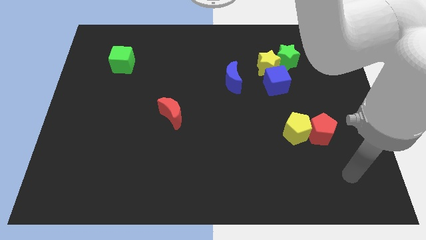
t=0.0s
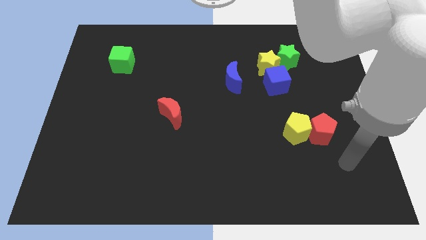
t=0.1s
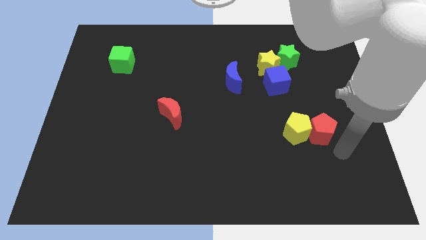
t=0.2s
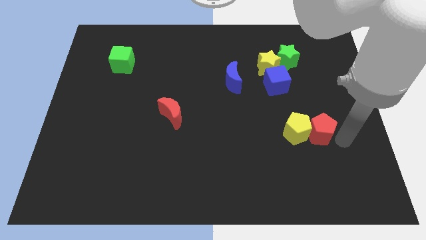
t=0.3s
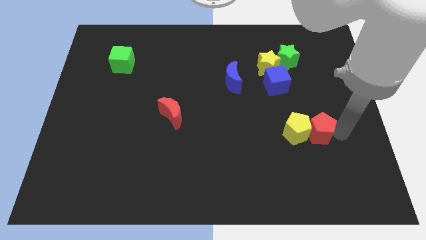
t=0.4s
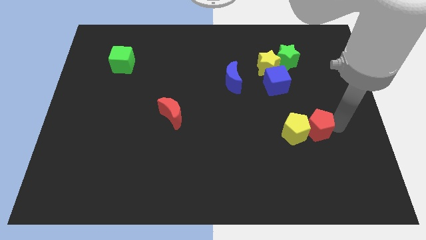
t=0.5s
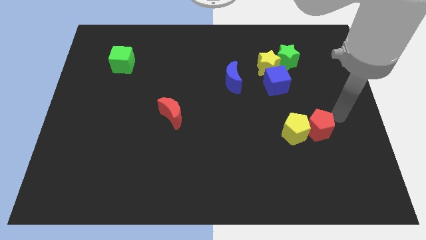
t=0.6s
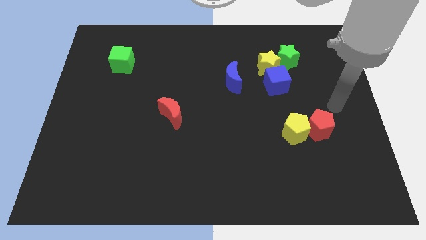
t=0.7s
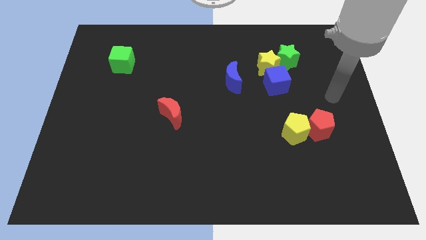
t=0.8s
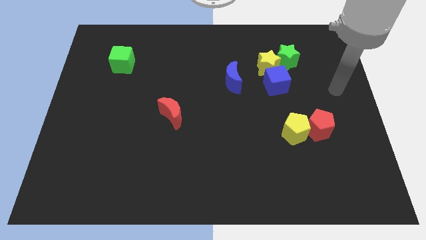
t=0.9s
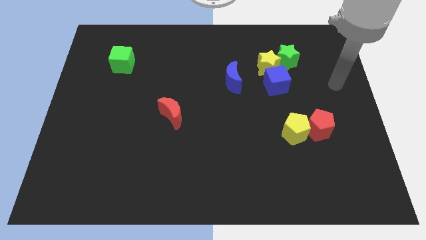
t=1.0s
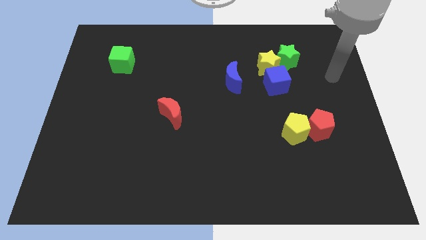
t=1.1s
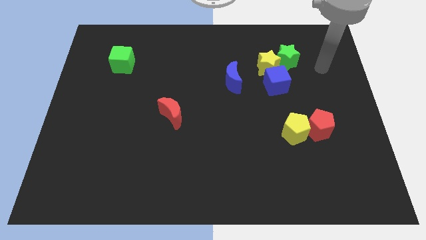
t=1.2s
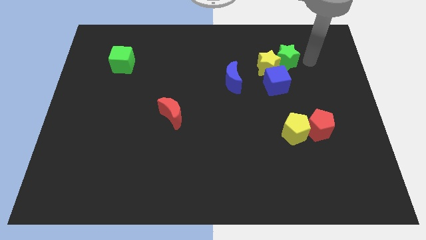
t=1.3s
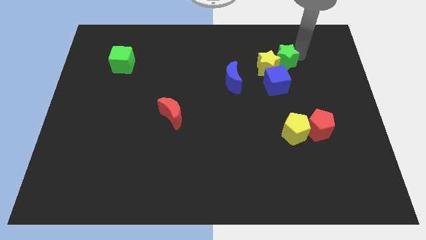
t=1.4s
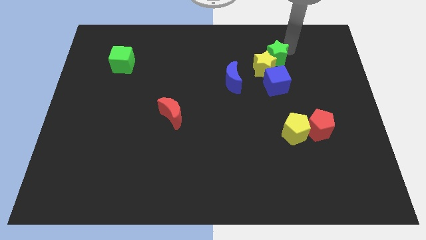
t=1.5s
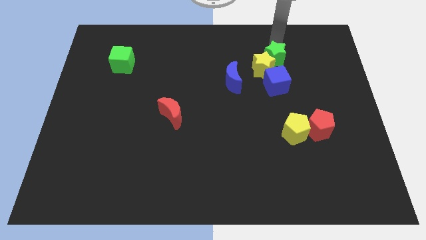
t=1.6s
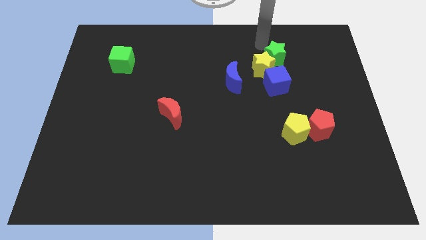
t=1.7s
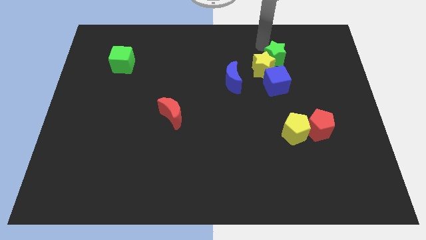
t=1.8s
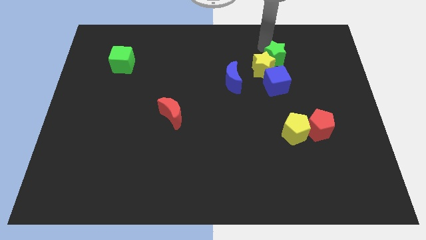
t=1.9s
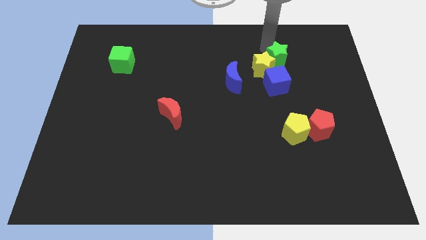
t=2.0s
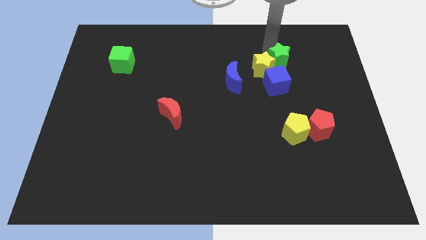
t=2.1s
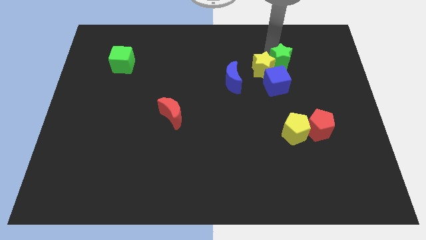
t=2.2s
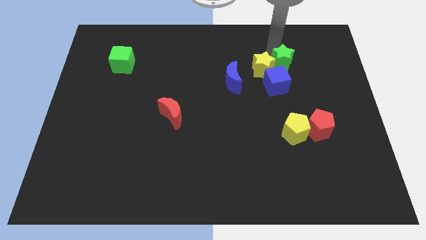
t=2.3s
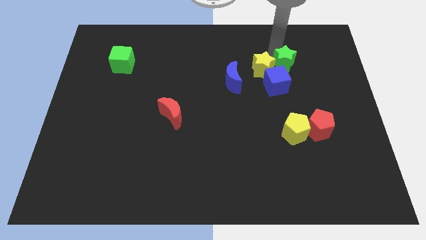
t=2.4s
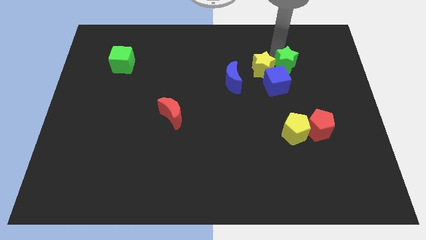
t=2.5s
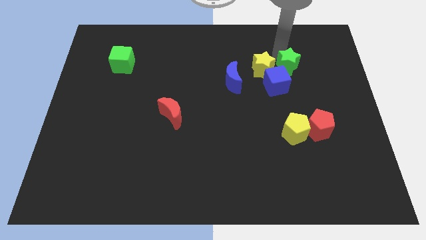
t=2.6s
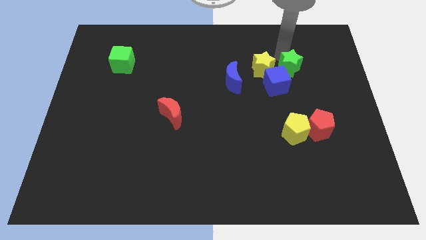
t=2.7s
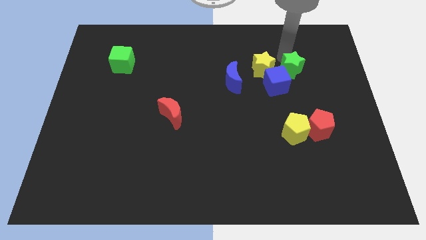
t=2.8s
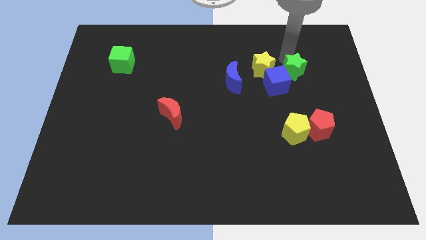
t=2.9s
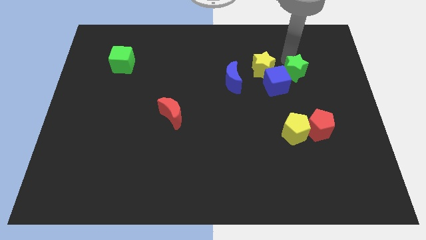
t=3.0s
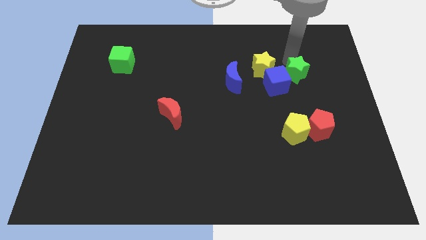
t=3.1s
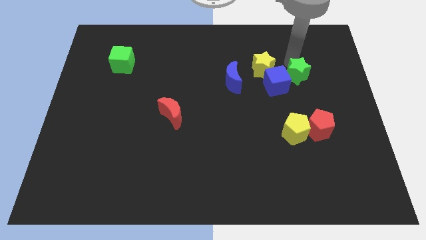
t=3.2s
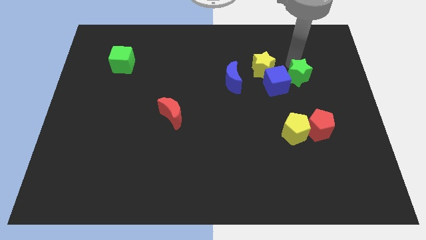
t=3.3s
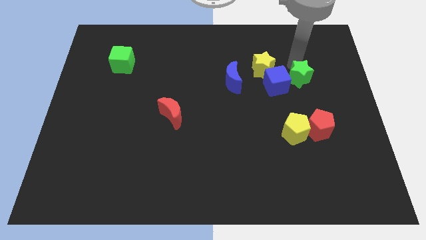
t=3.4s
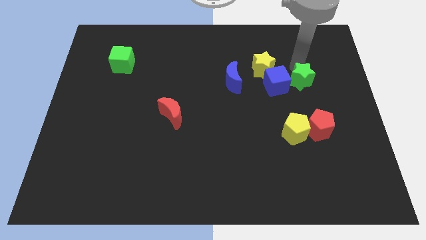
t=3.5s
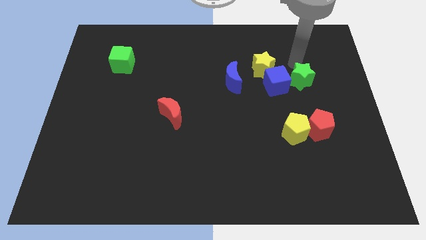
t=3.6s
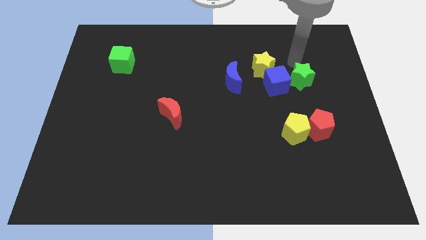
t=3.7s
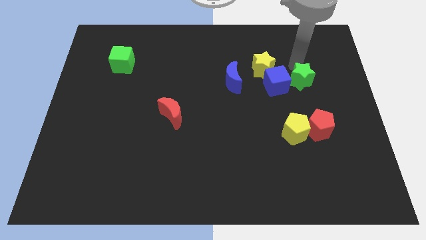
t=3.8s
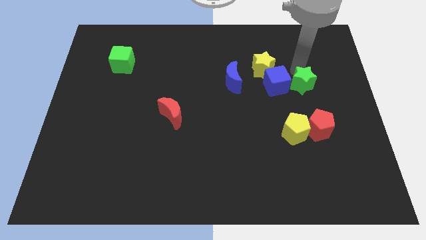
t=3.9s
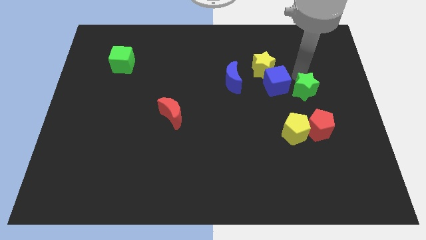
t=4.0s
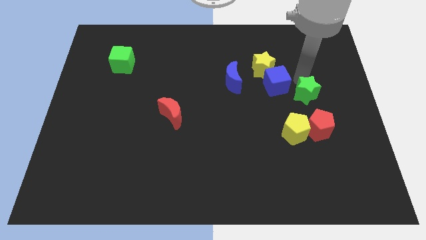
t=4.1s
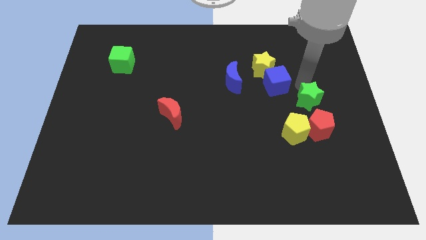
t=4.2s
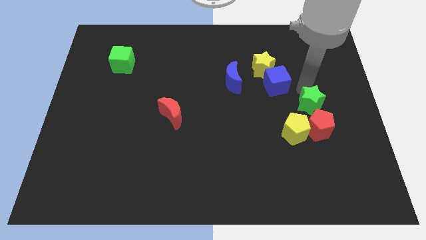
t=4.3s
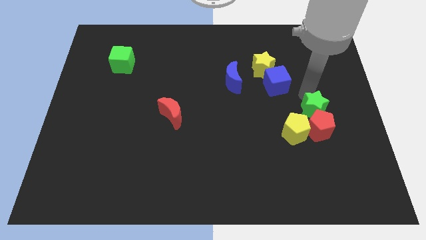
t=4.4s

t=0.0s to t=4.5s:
put the green star close to the red pentagon

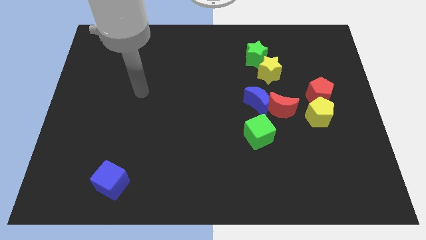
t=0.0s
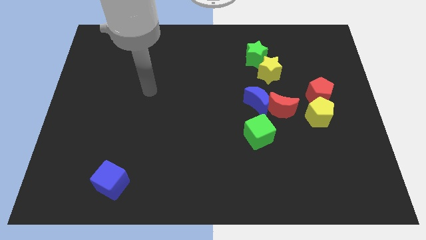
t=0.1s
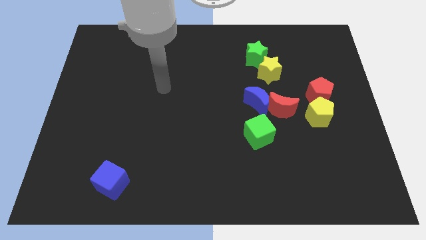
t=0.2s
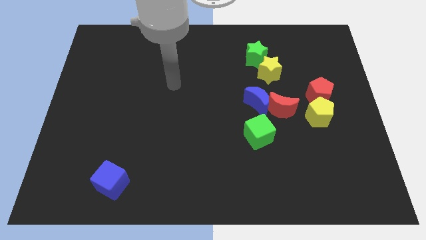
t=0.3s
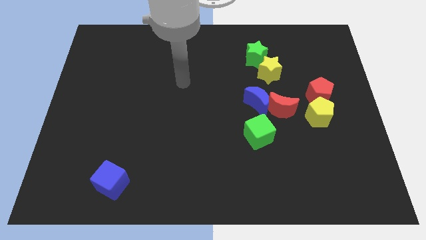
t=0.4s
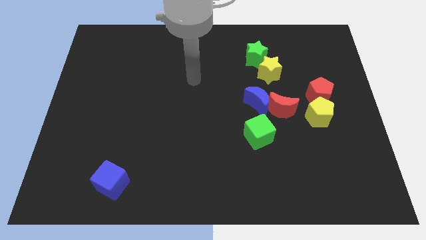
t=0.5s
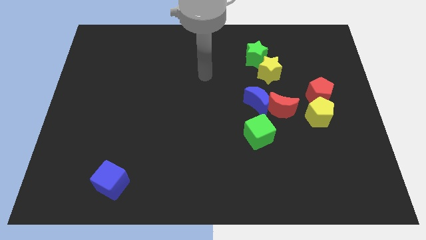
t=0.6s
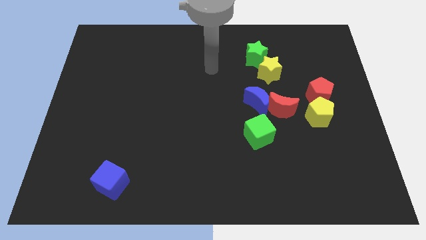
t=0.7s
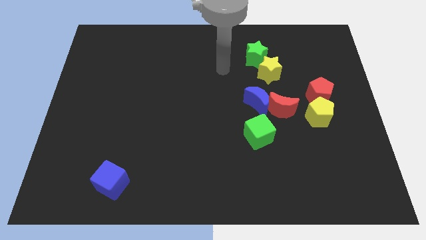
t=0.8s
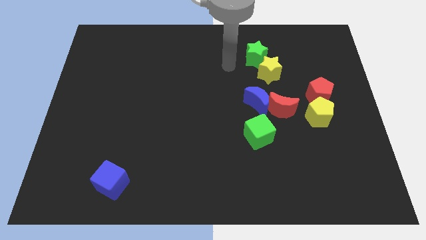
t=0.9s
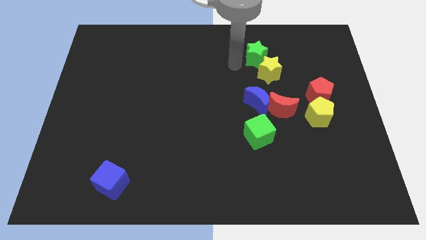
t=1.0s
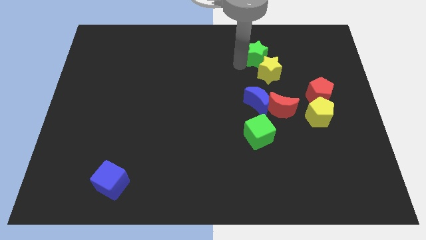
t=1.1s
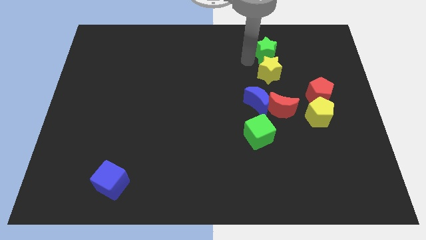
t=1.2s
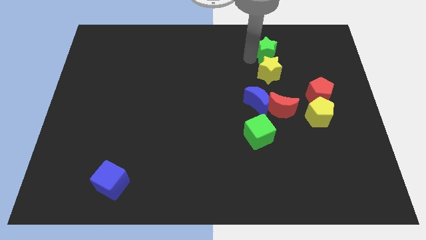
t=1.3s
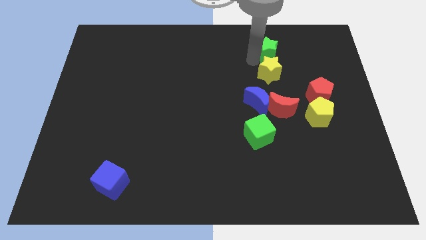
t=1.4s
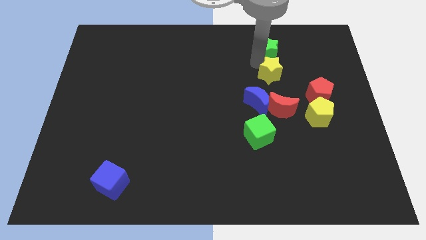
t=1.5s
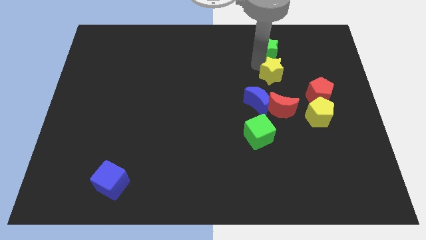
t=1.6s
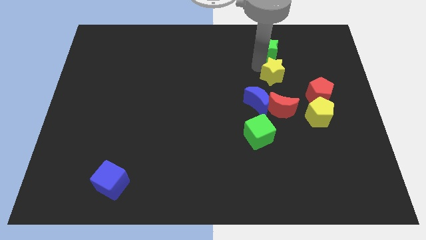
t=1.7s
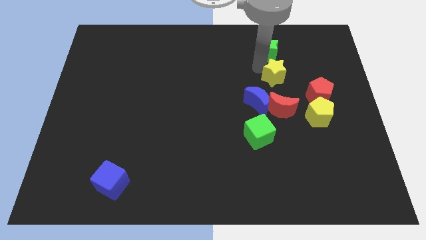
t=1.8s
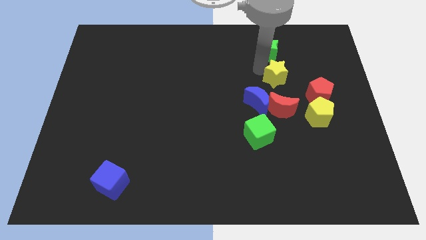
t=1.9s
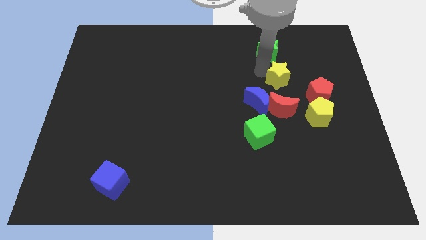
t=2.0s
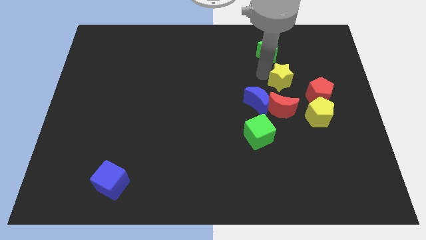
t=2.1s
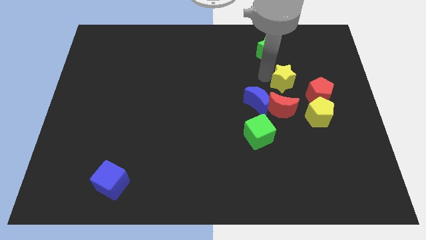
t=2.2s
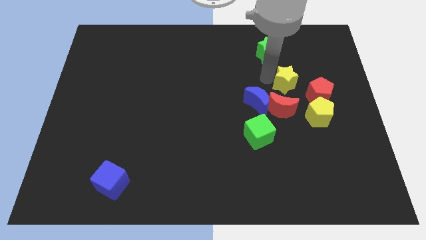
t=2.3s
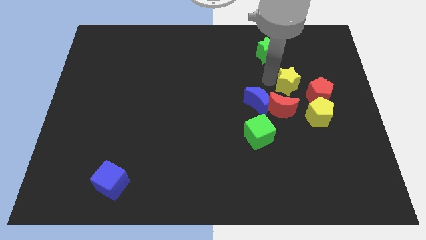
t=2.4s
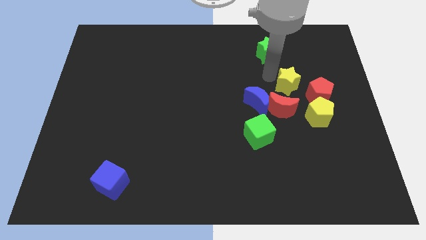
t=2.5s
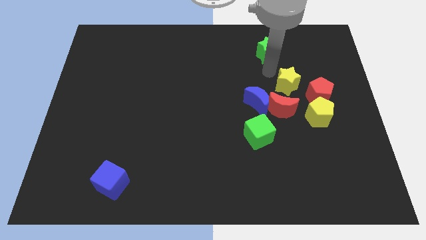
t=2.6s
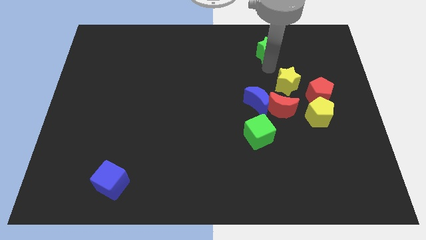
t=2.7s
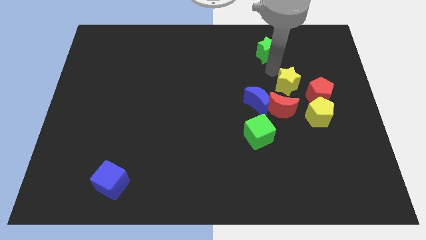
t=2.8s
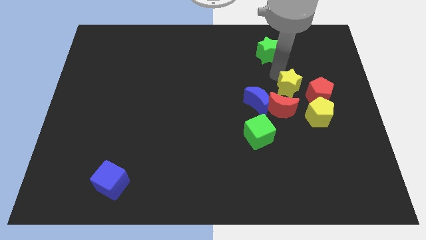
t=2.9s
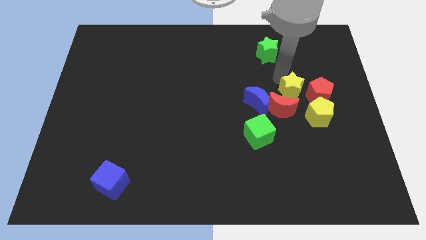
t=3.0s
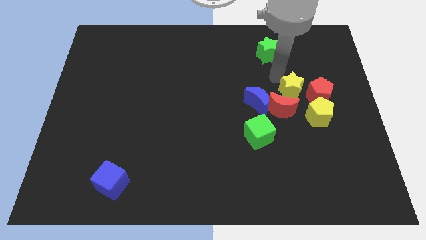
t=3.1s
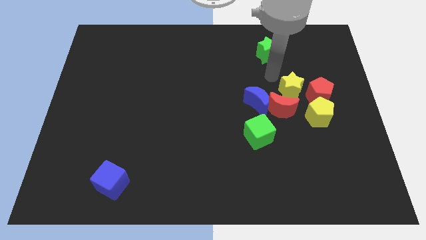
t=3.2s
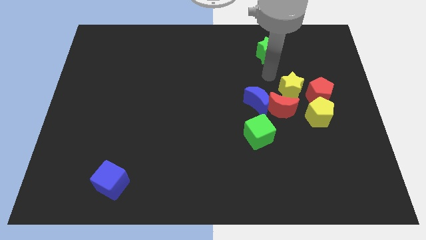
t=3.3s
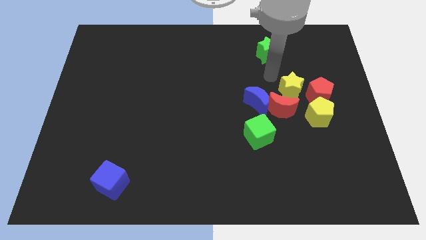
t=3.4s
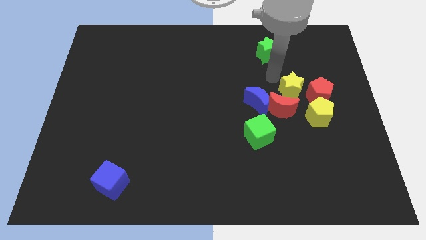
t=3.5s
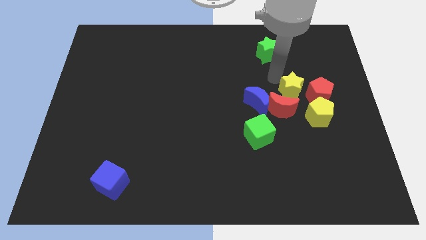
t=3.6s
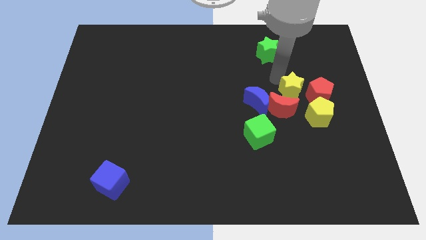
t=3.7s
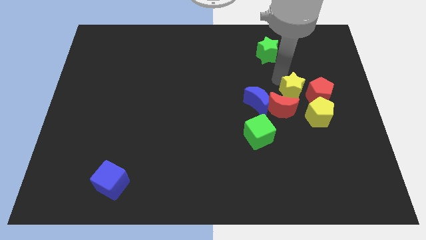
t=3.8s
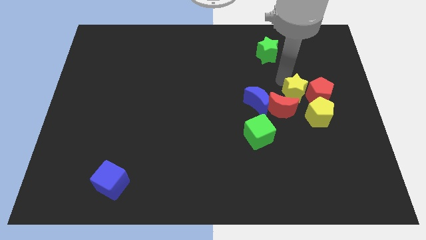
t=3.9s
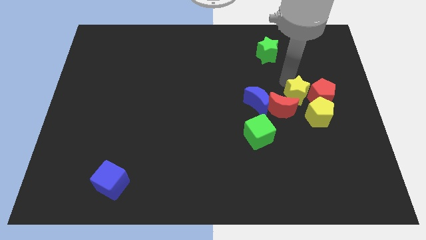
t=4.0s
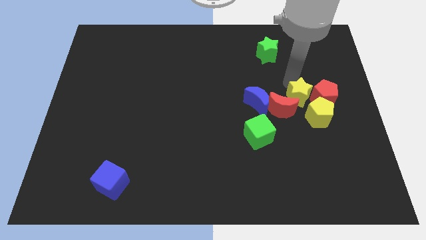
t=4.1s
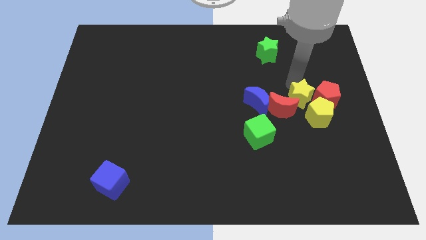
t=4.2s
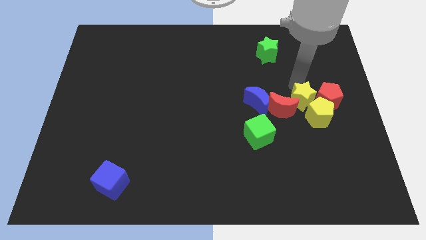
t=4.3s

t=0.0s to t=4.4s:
move the yellow star to the yellow pentagon
